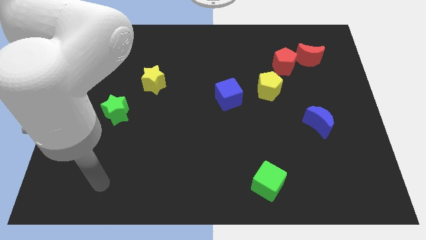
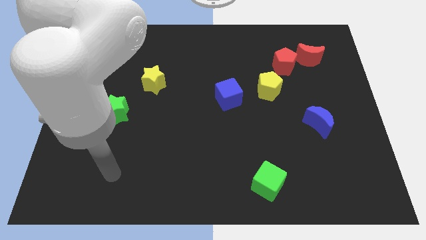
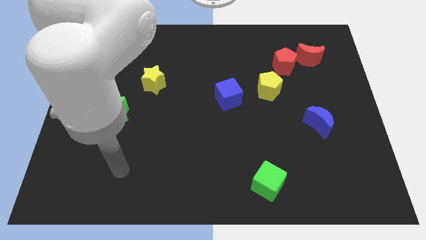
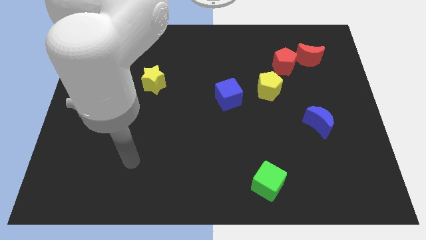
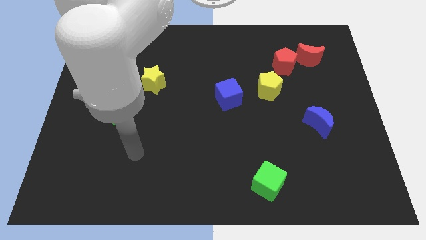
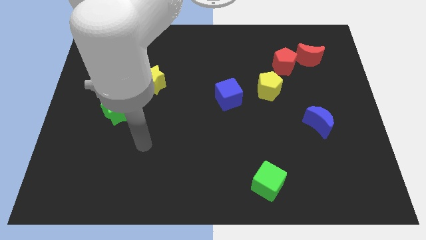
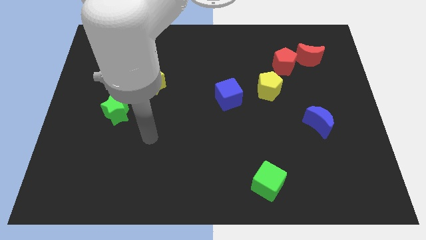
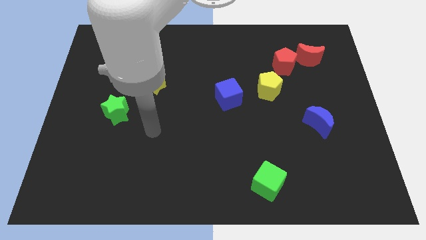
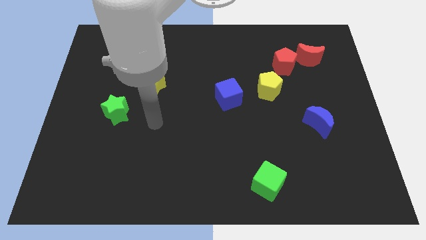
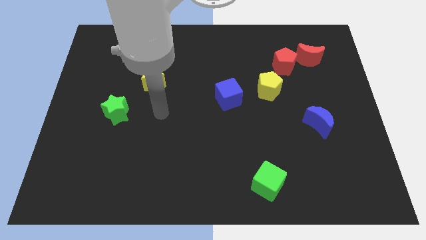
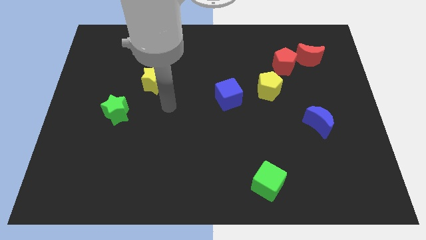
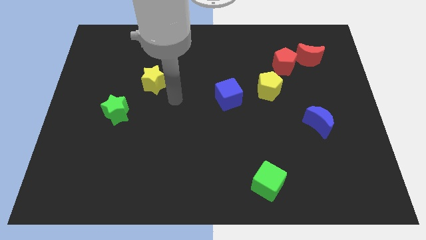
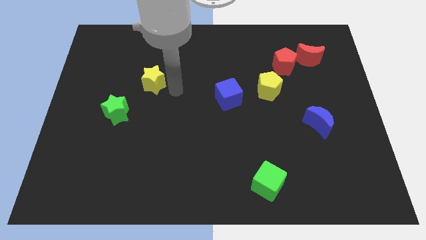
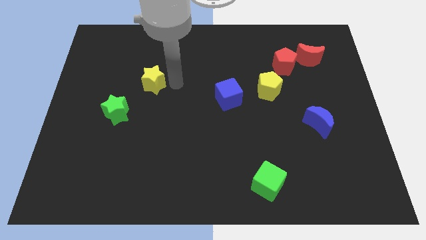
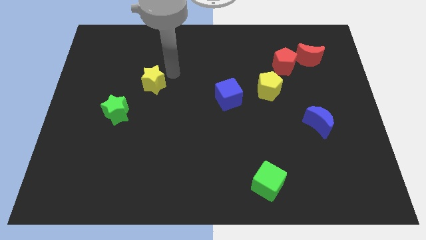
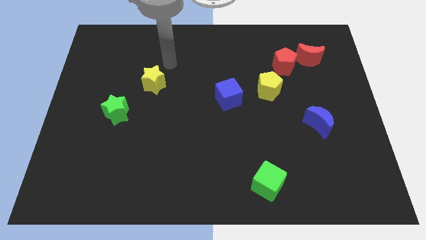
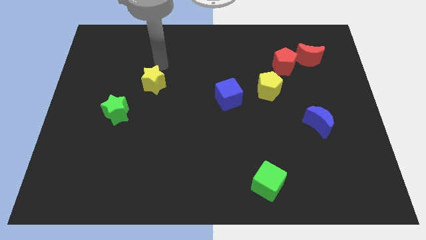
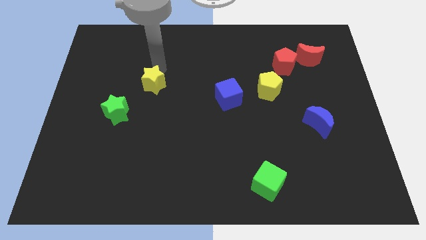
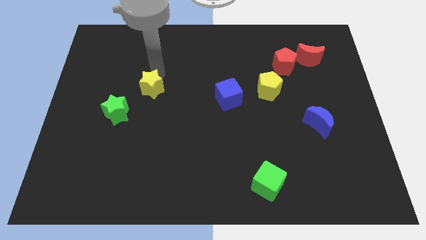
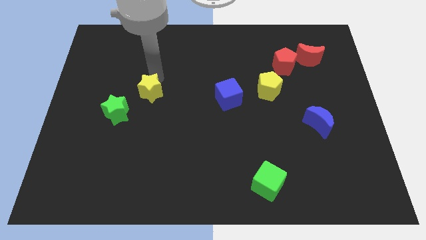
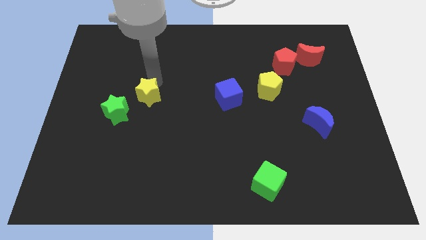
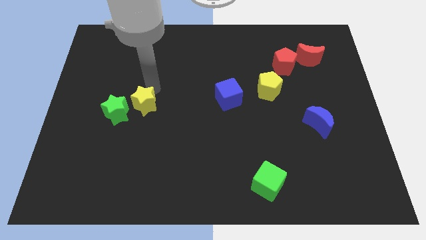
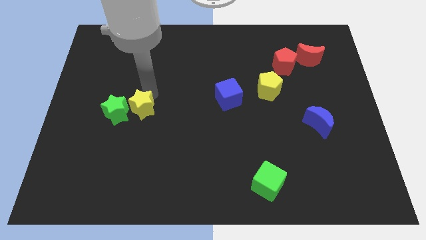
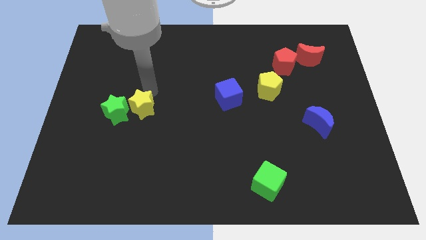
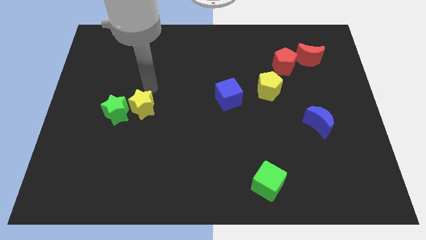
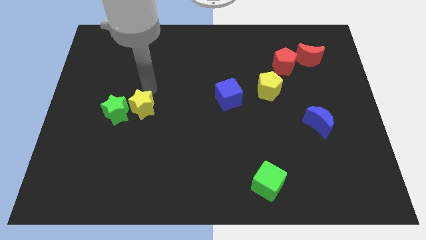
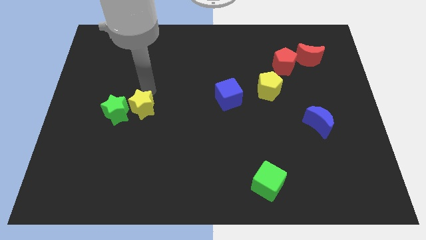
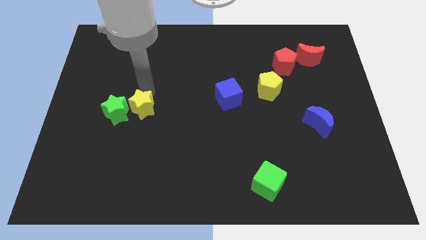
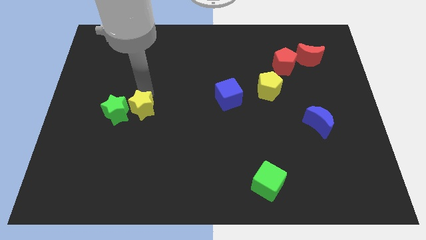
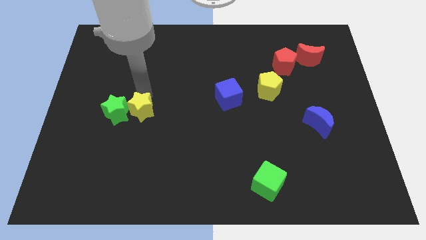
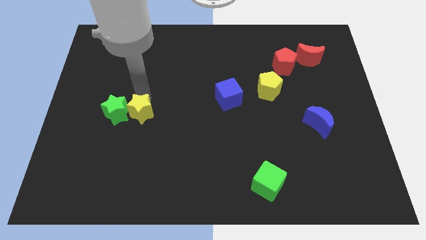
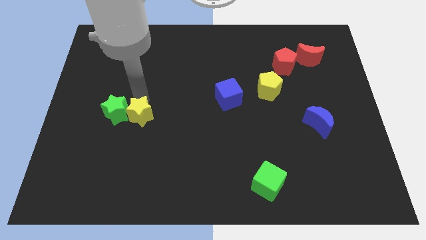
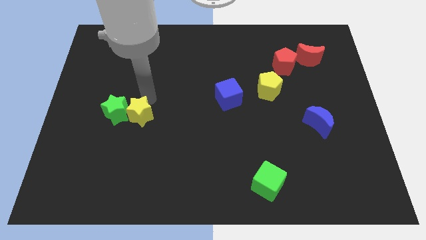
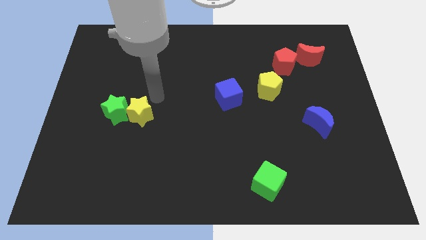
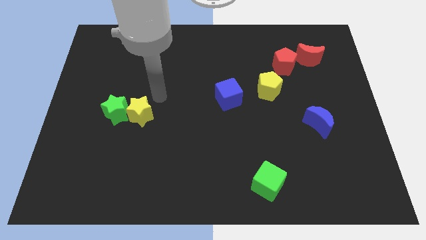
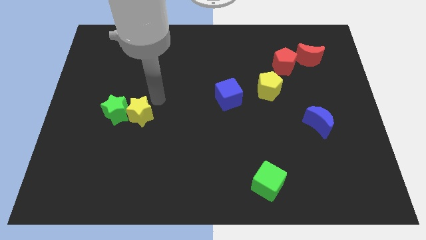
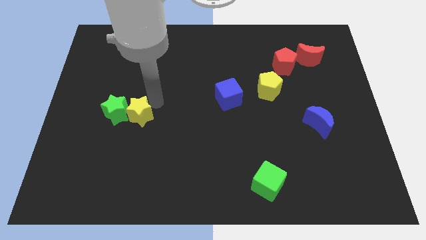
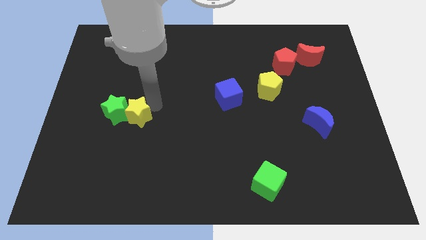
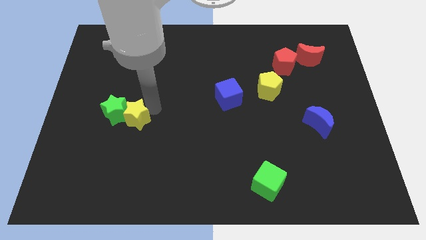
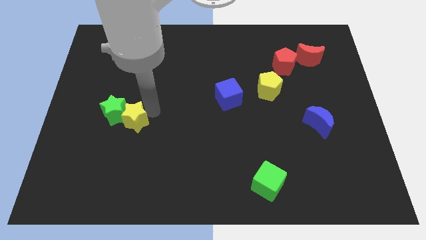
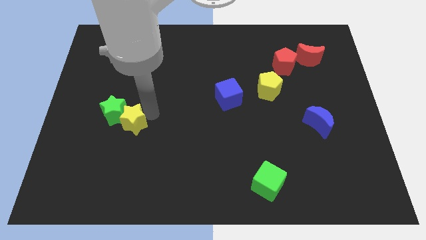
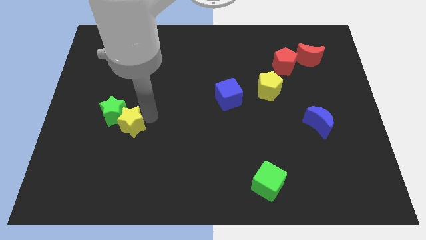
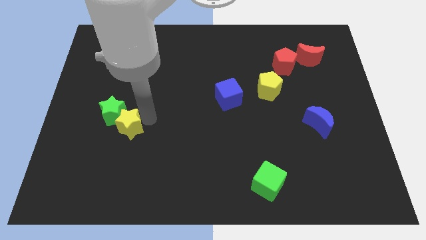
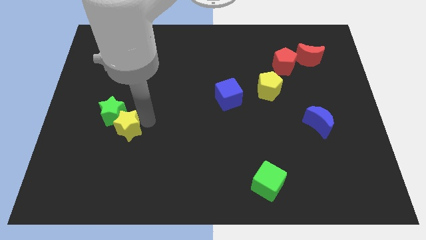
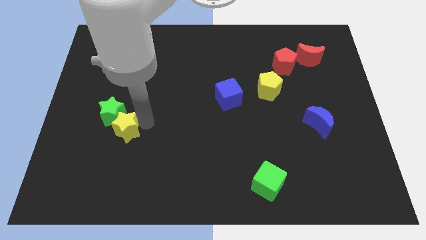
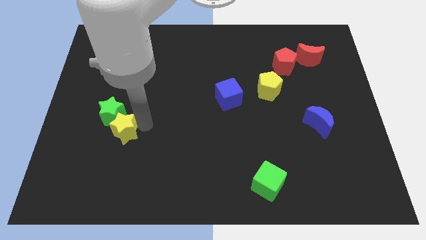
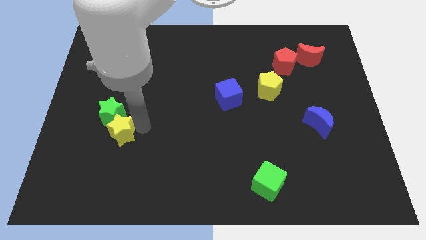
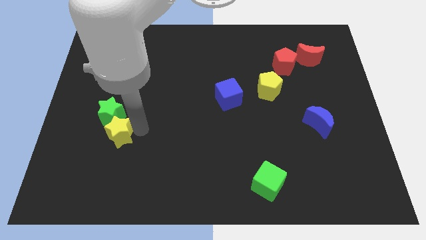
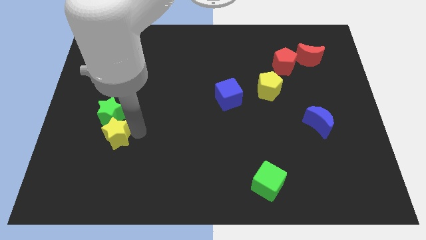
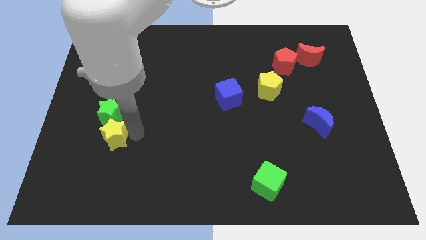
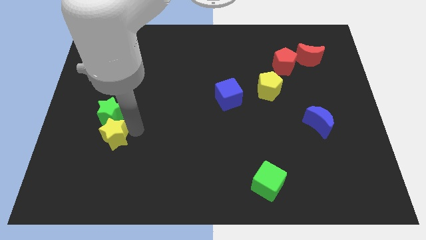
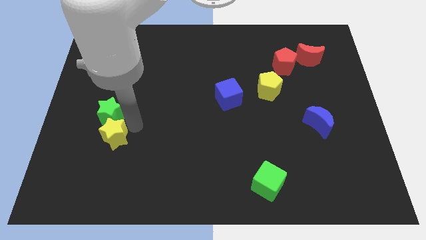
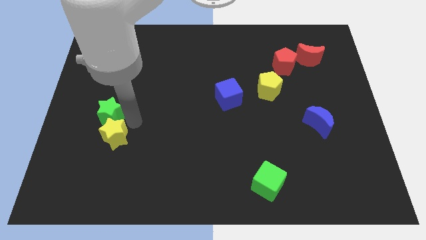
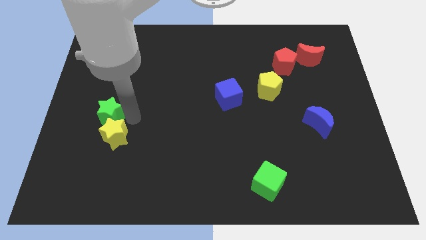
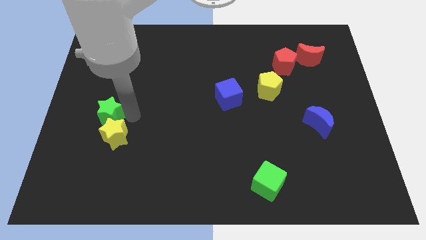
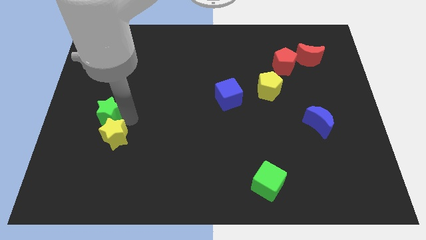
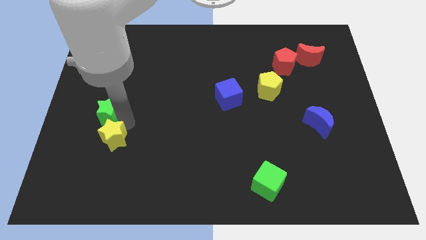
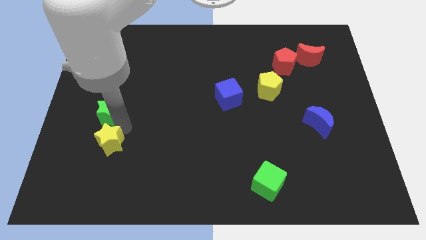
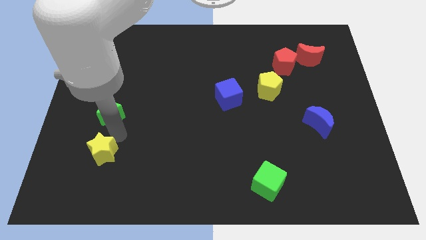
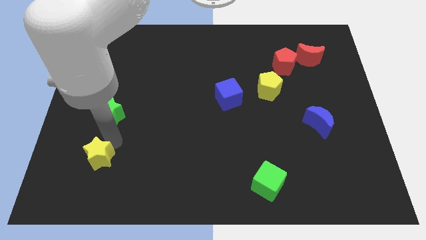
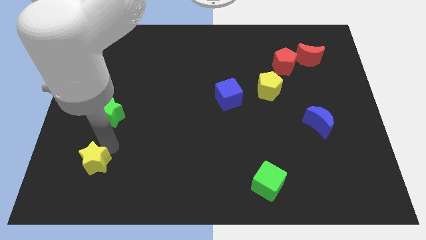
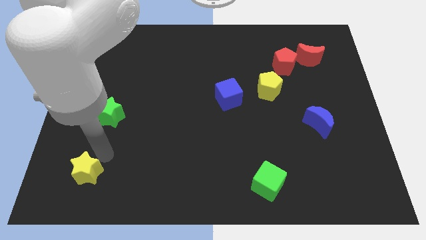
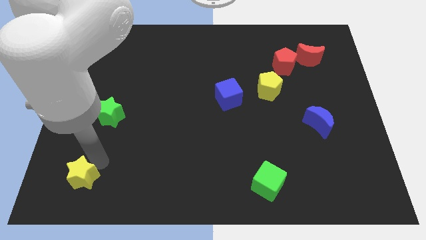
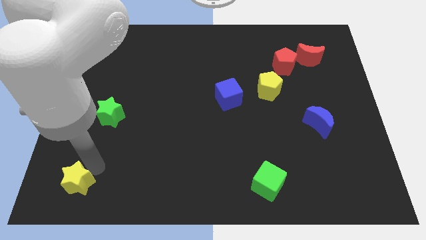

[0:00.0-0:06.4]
slide the yellow star to the bottom left
